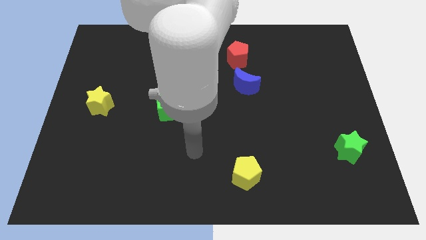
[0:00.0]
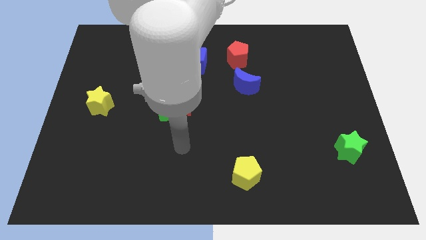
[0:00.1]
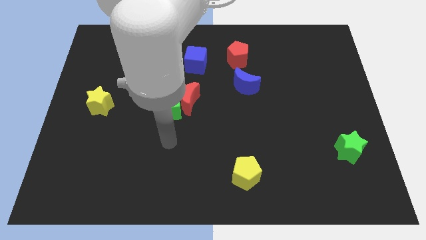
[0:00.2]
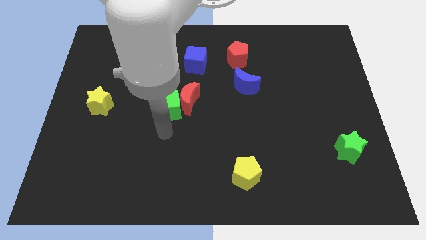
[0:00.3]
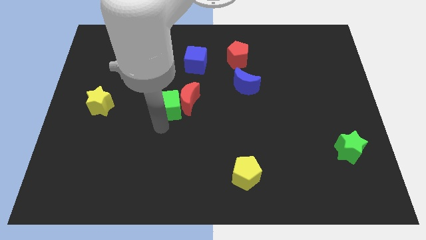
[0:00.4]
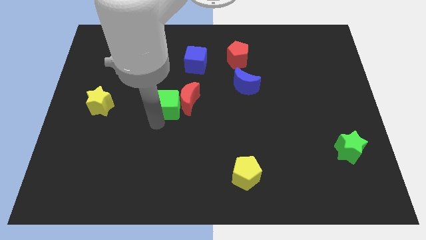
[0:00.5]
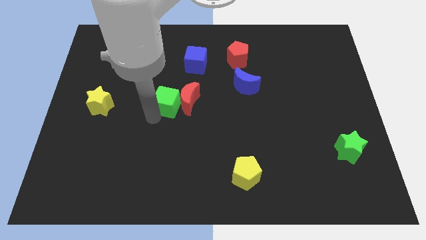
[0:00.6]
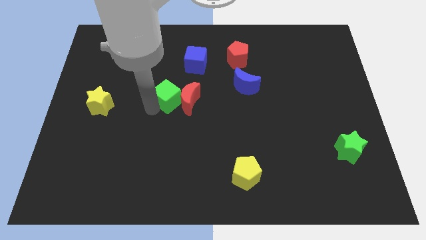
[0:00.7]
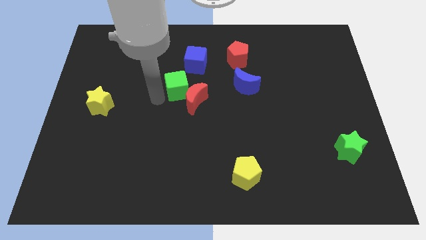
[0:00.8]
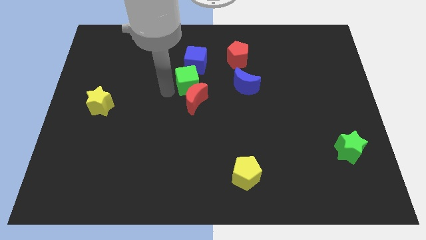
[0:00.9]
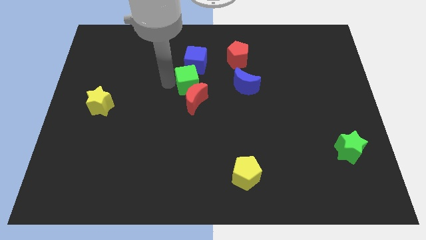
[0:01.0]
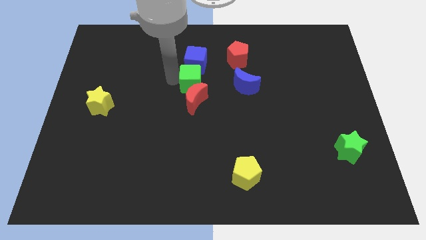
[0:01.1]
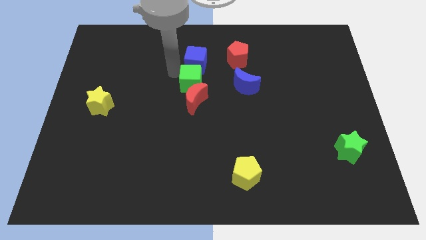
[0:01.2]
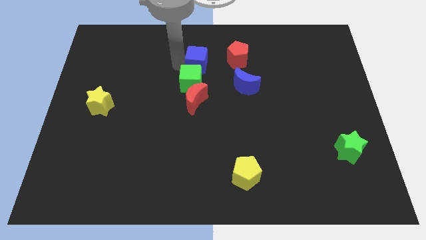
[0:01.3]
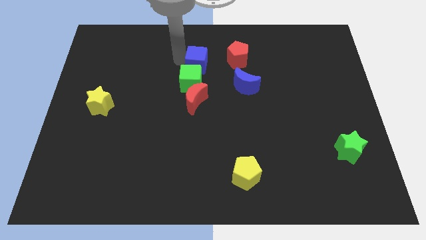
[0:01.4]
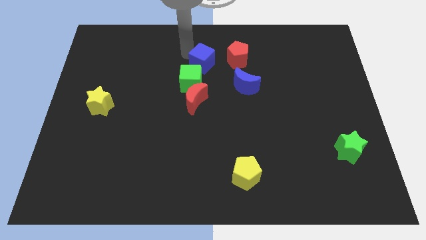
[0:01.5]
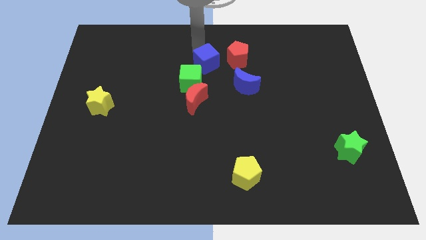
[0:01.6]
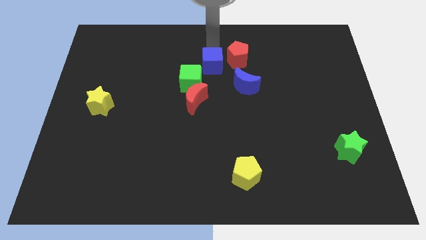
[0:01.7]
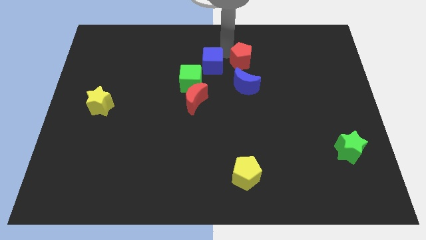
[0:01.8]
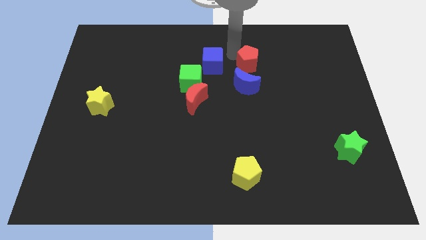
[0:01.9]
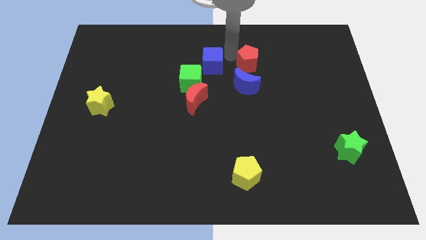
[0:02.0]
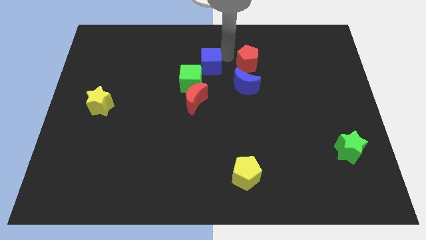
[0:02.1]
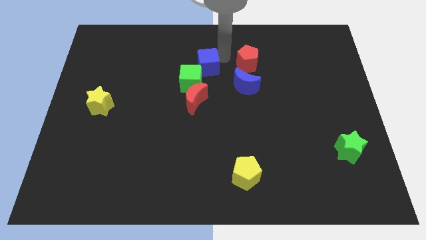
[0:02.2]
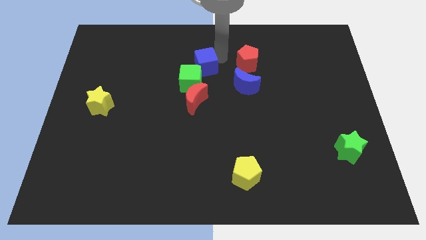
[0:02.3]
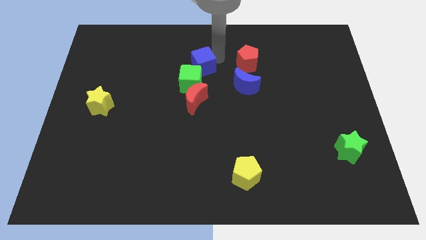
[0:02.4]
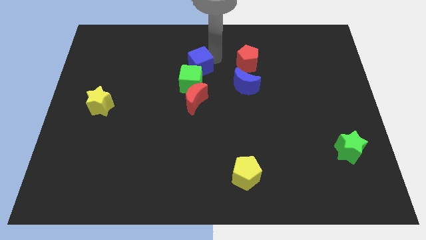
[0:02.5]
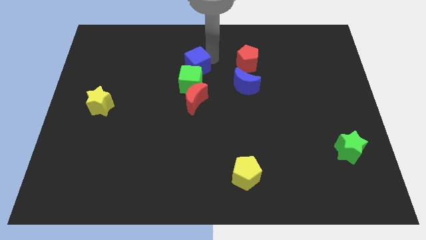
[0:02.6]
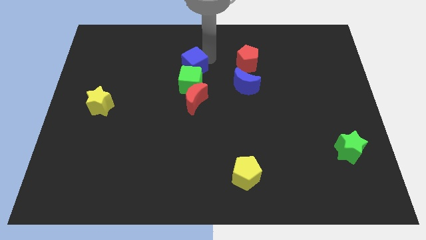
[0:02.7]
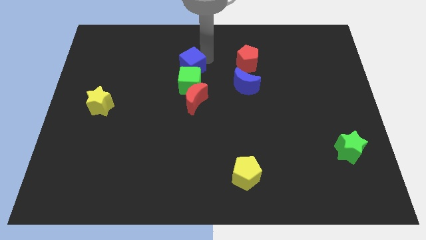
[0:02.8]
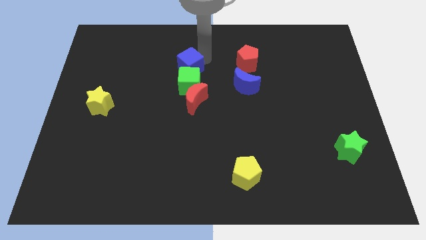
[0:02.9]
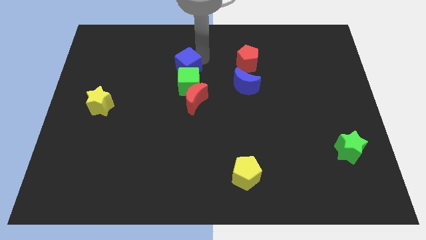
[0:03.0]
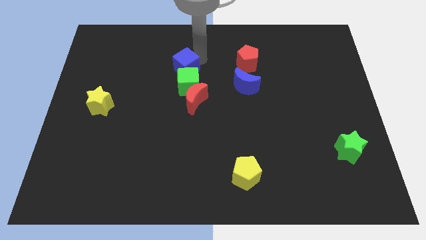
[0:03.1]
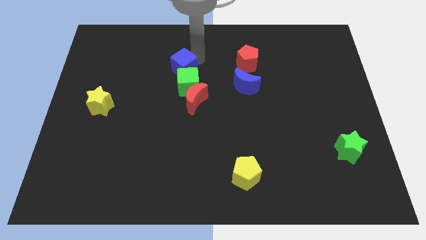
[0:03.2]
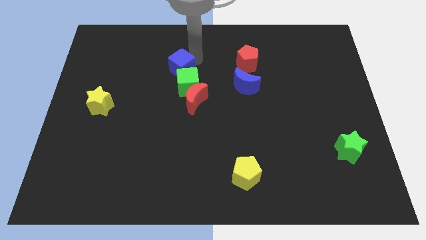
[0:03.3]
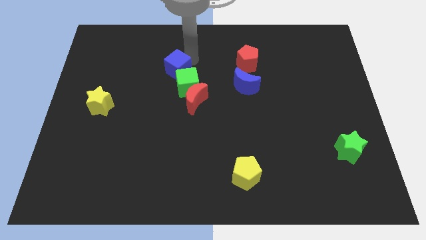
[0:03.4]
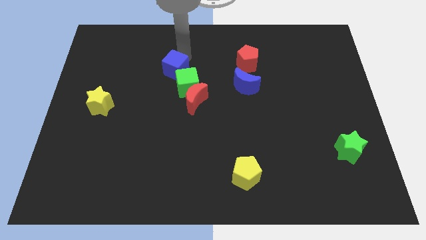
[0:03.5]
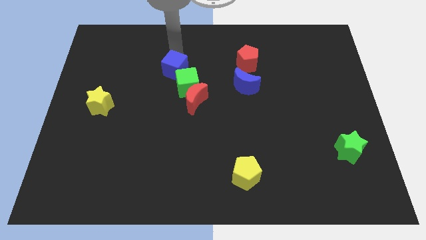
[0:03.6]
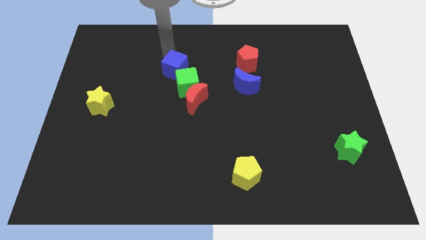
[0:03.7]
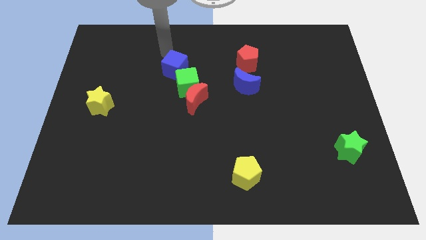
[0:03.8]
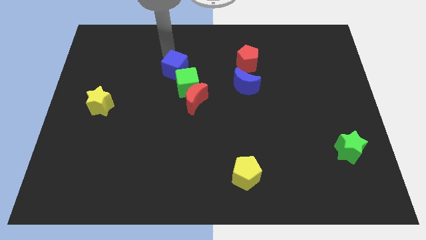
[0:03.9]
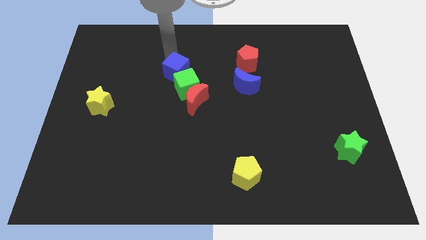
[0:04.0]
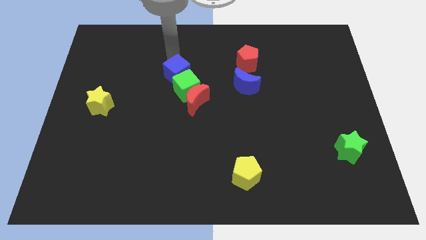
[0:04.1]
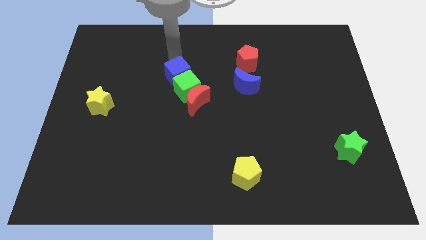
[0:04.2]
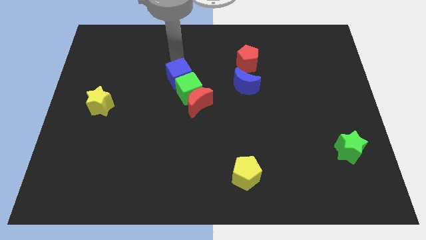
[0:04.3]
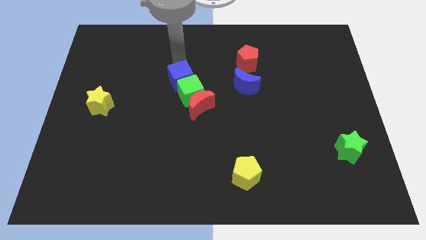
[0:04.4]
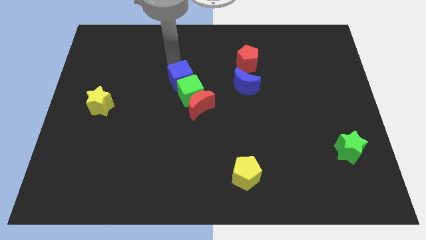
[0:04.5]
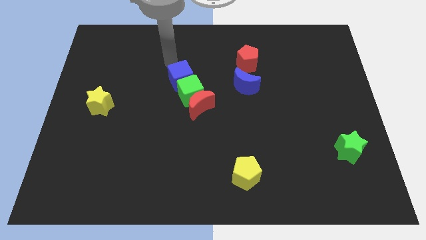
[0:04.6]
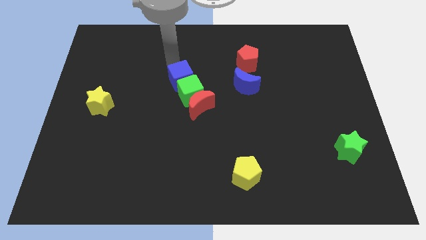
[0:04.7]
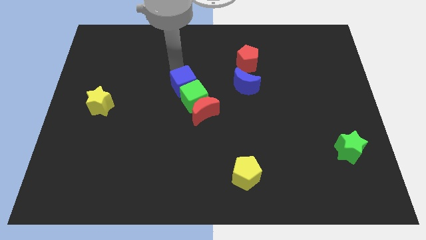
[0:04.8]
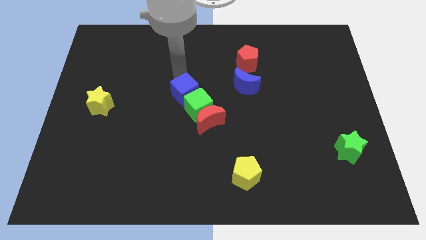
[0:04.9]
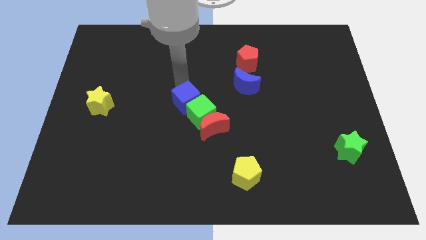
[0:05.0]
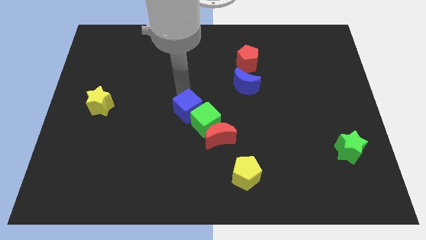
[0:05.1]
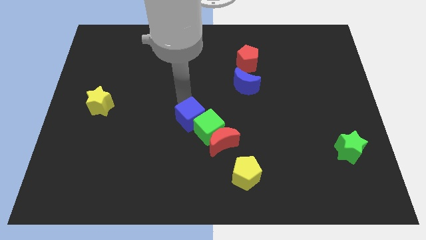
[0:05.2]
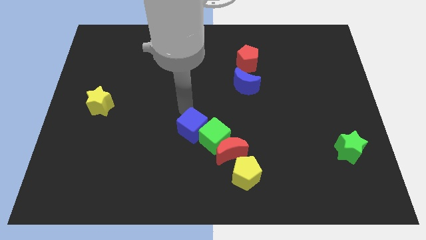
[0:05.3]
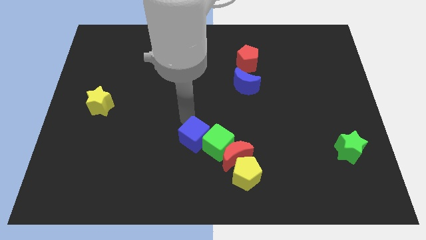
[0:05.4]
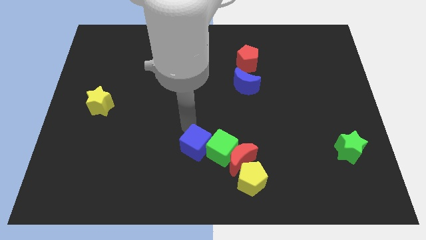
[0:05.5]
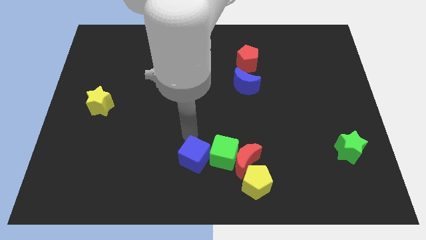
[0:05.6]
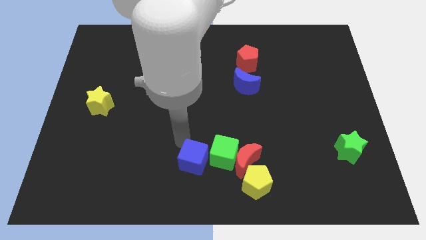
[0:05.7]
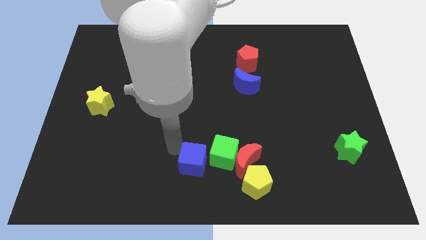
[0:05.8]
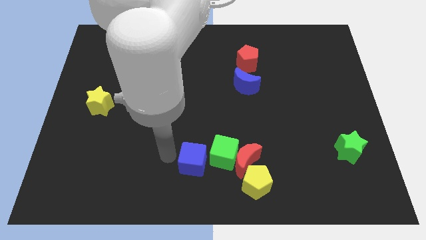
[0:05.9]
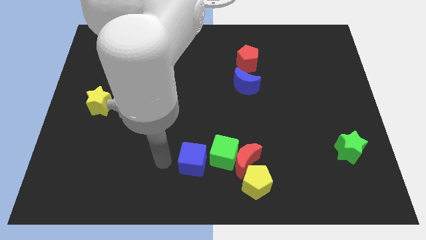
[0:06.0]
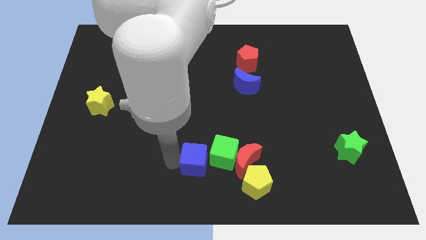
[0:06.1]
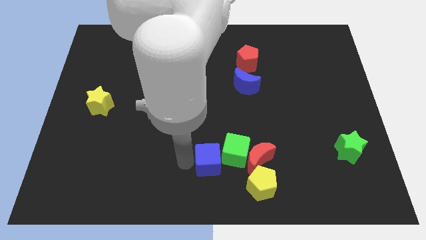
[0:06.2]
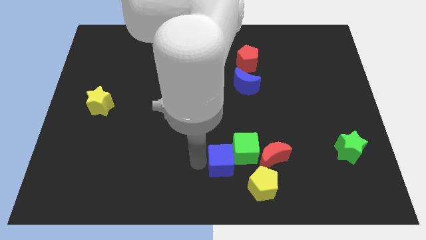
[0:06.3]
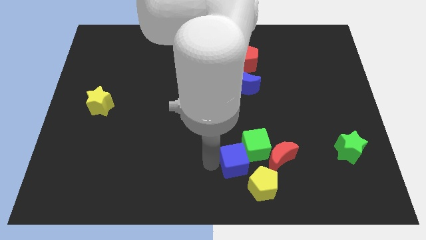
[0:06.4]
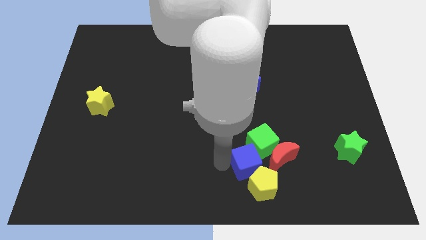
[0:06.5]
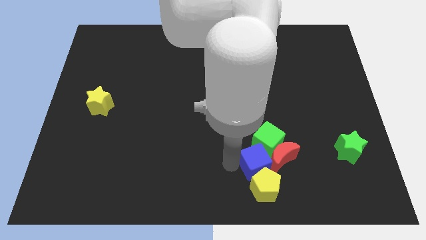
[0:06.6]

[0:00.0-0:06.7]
move the blue cube next to the red moon

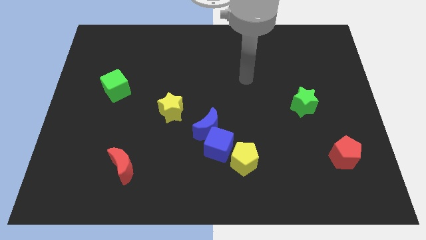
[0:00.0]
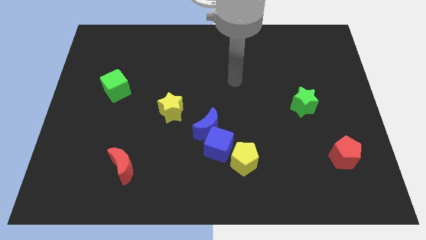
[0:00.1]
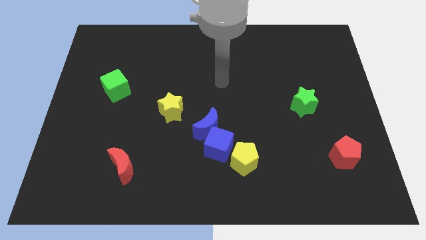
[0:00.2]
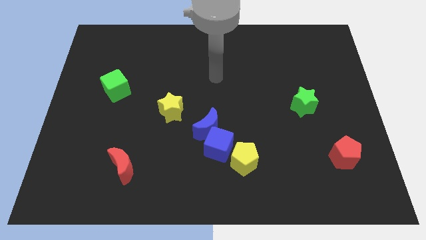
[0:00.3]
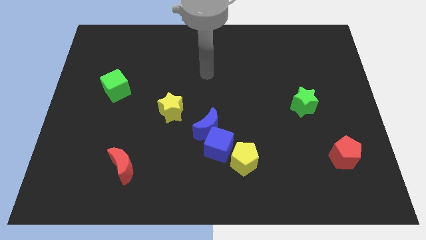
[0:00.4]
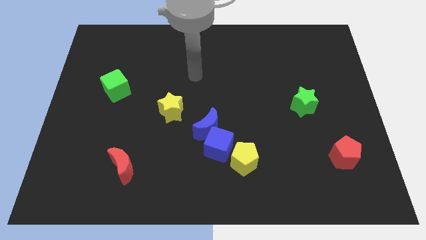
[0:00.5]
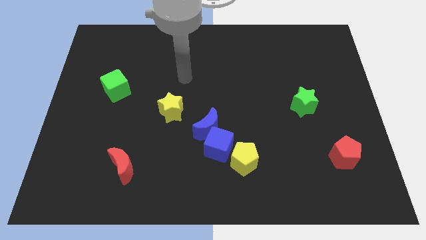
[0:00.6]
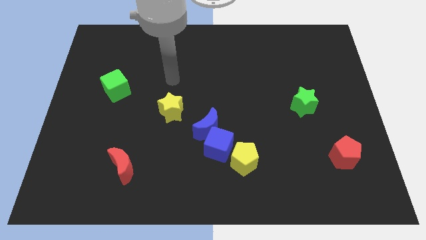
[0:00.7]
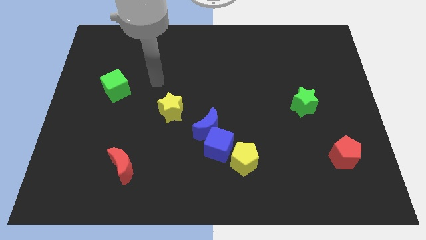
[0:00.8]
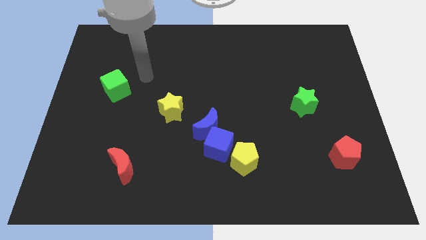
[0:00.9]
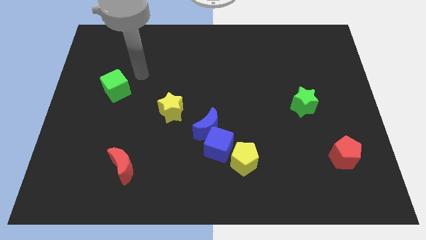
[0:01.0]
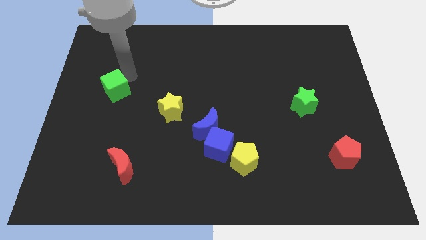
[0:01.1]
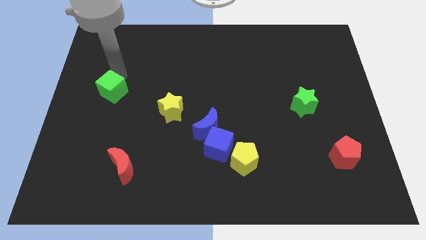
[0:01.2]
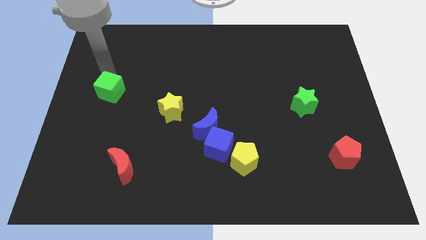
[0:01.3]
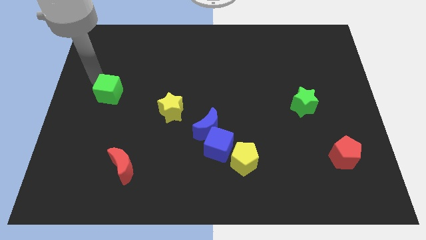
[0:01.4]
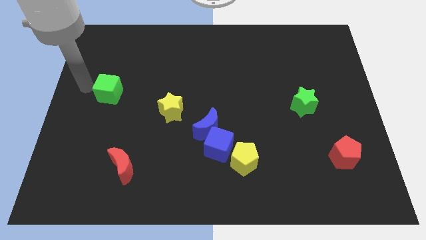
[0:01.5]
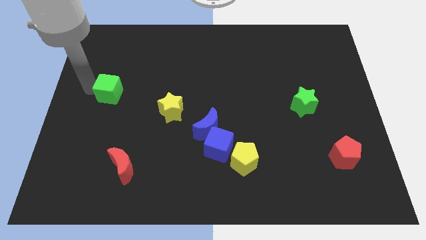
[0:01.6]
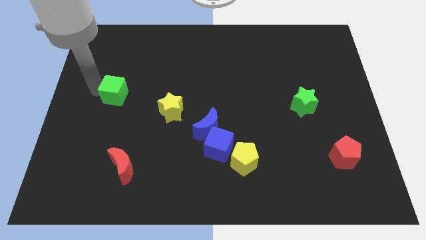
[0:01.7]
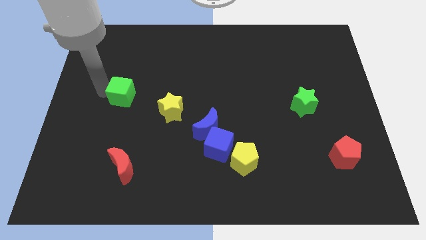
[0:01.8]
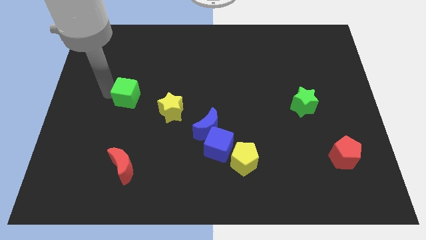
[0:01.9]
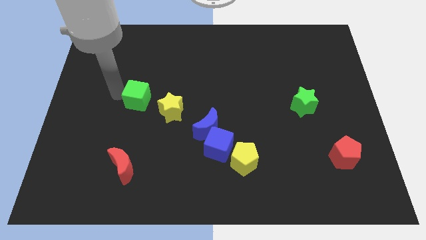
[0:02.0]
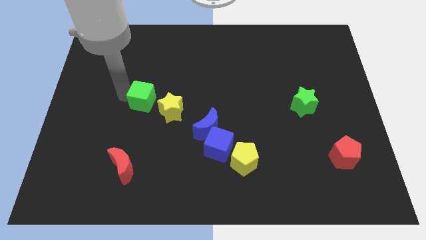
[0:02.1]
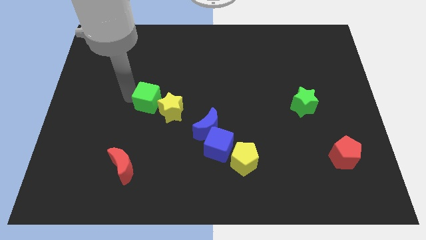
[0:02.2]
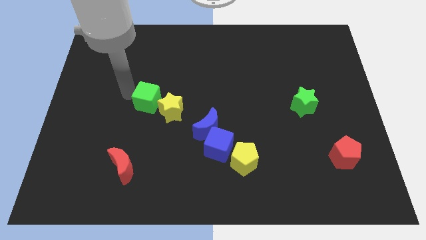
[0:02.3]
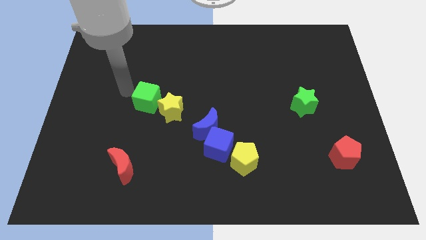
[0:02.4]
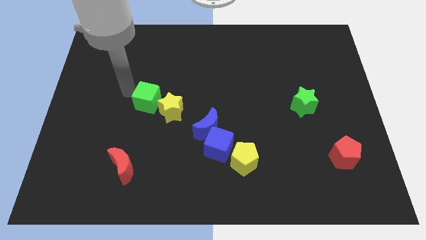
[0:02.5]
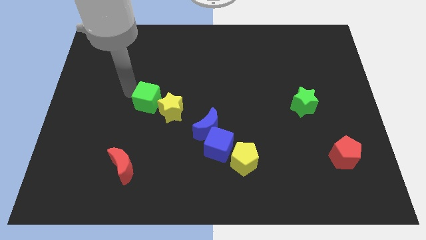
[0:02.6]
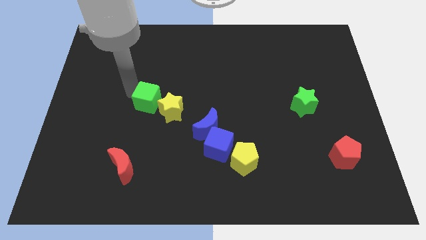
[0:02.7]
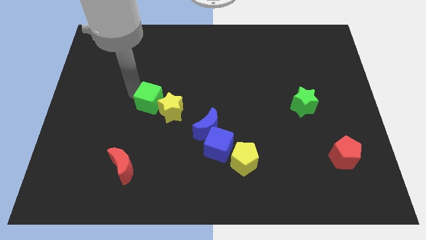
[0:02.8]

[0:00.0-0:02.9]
slide the green cube next to the yellow star
